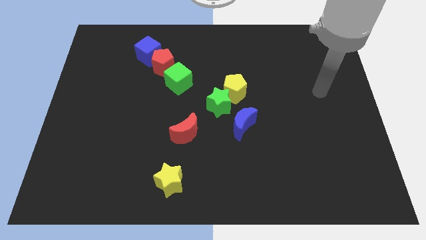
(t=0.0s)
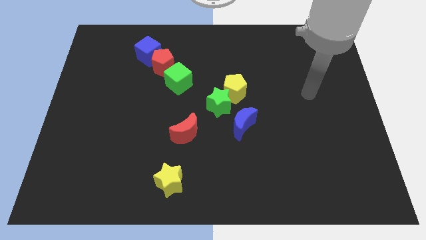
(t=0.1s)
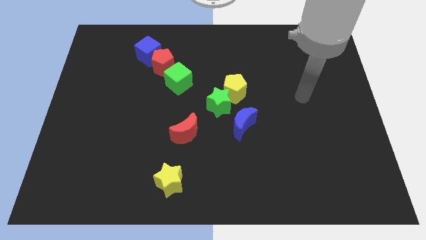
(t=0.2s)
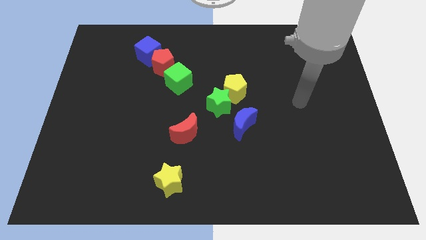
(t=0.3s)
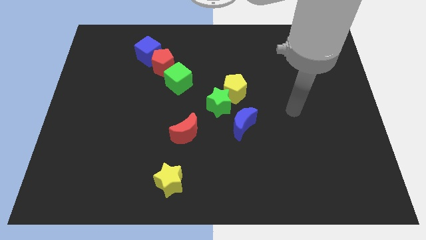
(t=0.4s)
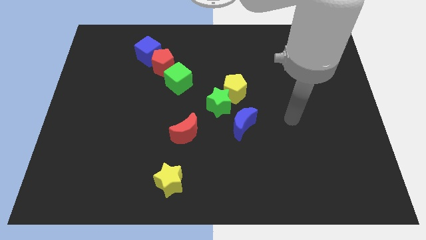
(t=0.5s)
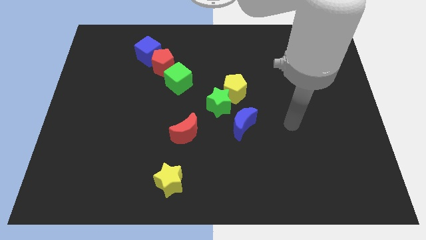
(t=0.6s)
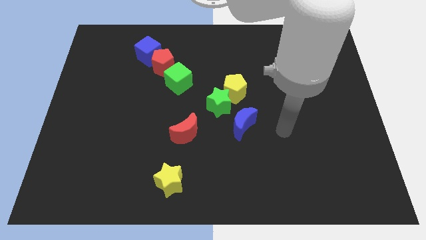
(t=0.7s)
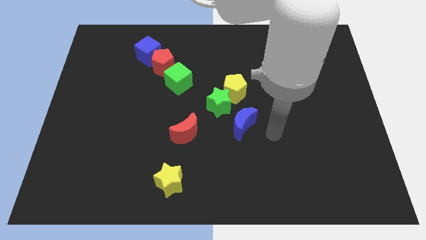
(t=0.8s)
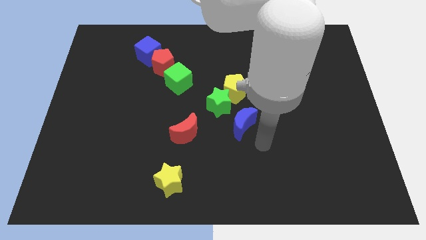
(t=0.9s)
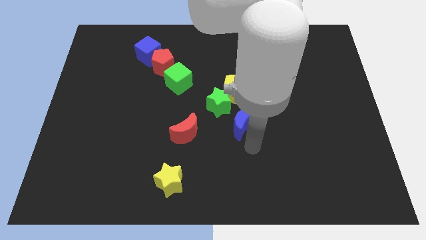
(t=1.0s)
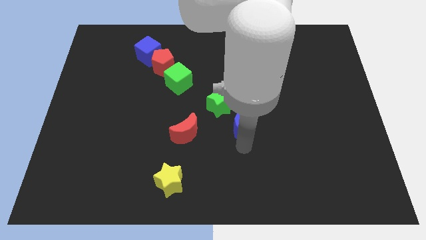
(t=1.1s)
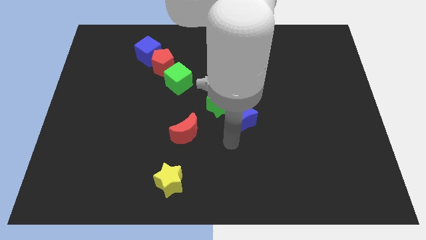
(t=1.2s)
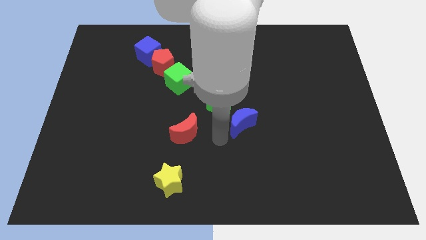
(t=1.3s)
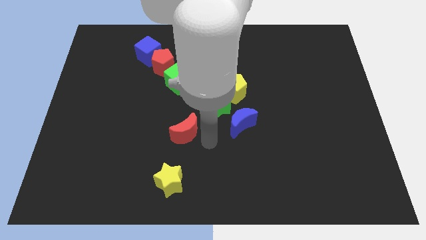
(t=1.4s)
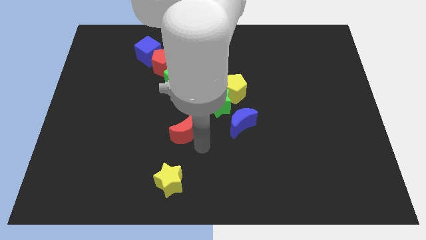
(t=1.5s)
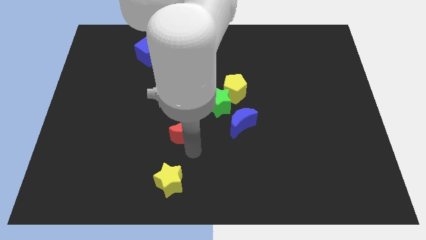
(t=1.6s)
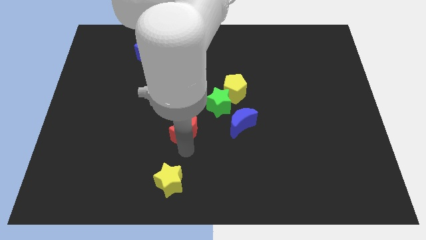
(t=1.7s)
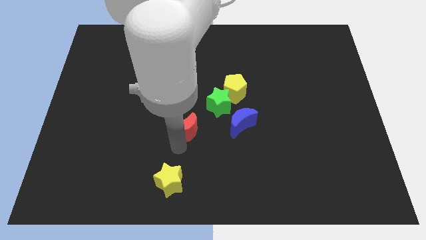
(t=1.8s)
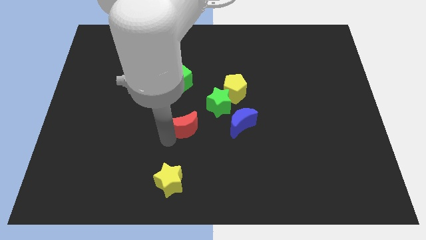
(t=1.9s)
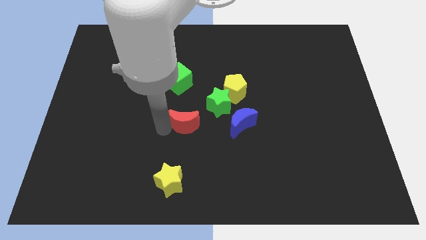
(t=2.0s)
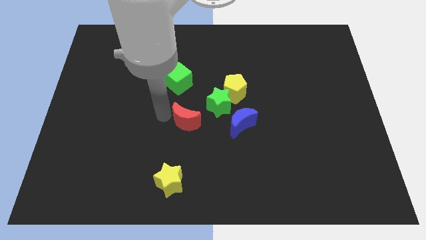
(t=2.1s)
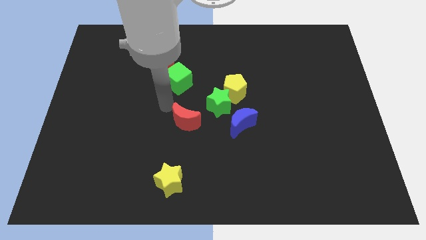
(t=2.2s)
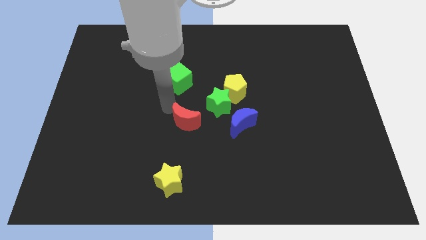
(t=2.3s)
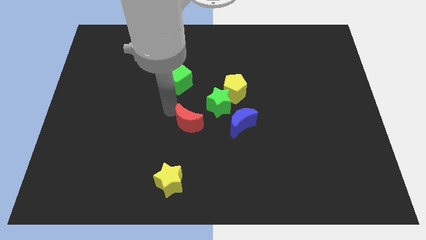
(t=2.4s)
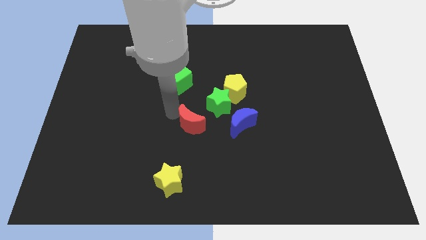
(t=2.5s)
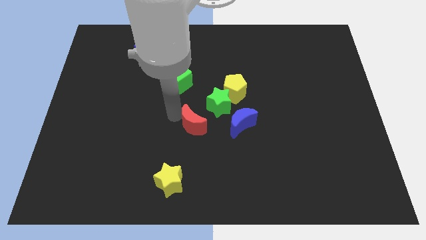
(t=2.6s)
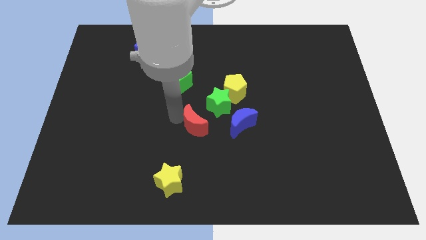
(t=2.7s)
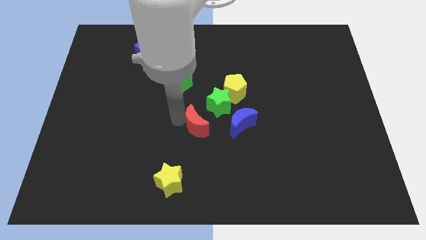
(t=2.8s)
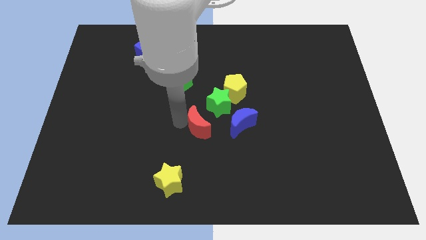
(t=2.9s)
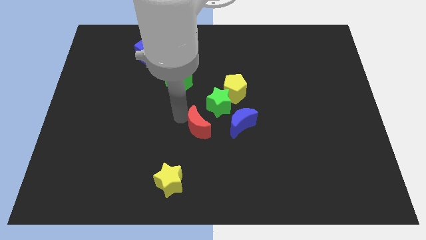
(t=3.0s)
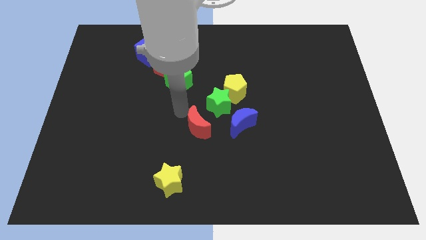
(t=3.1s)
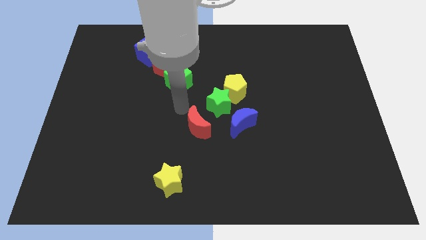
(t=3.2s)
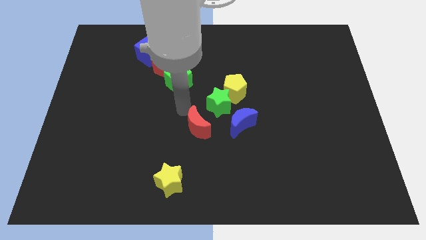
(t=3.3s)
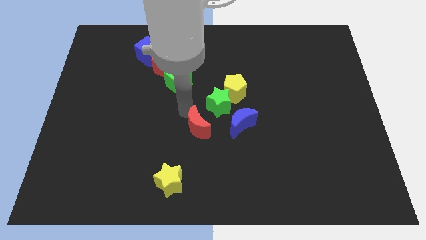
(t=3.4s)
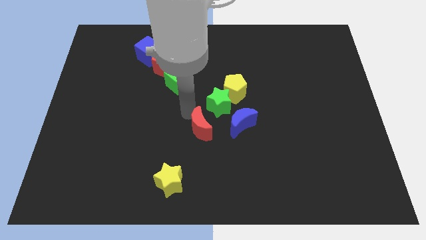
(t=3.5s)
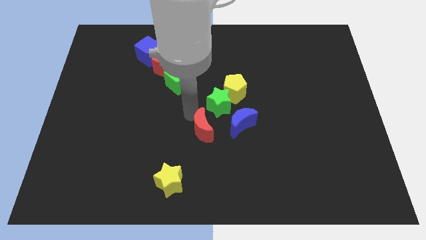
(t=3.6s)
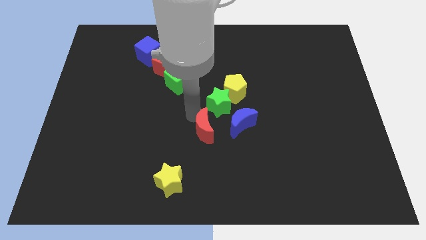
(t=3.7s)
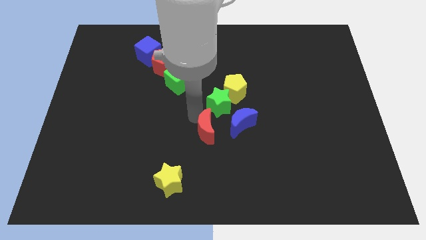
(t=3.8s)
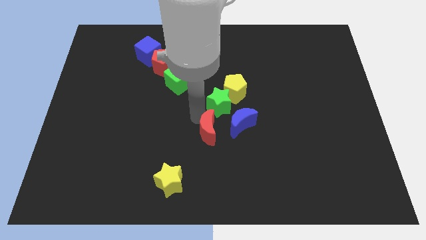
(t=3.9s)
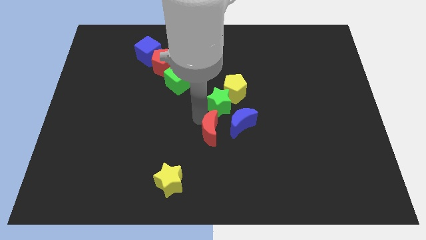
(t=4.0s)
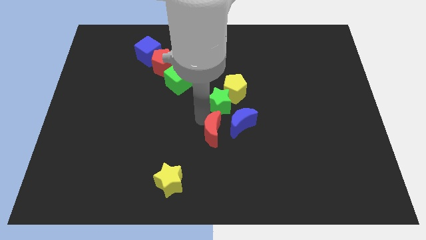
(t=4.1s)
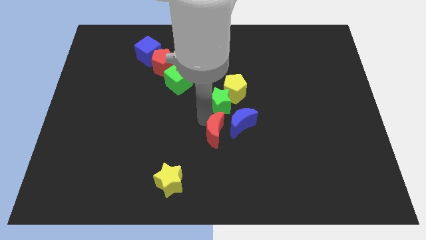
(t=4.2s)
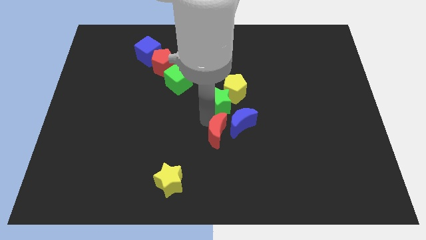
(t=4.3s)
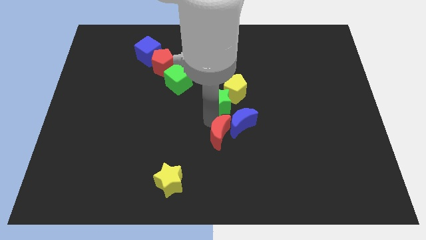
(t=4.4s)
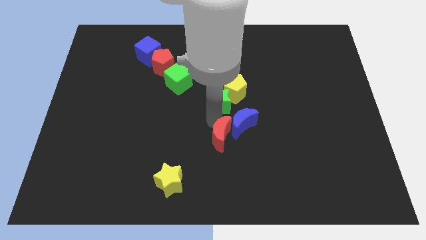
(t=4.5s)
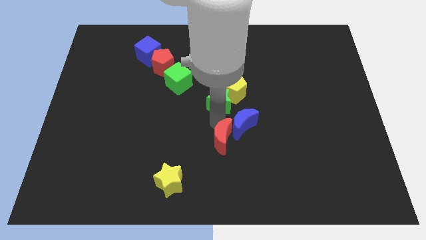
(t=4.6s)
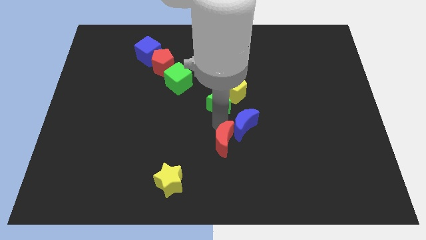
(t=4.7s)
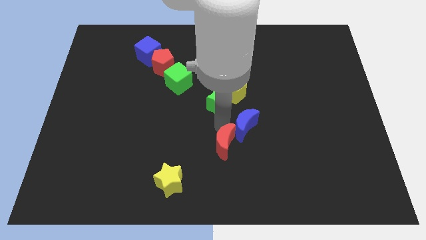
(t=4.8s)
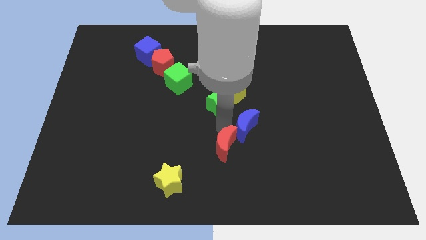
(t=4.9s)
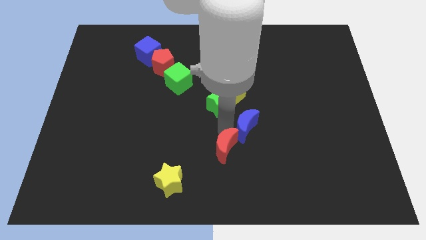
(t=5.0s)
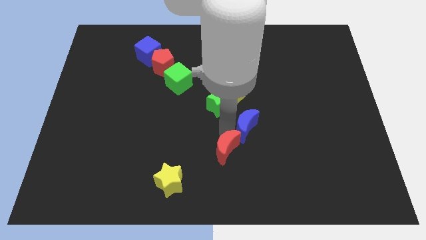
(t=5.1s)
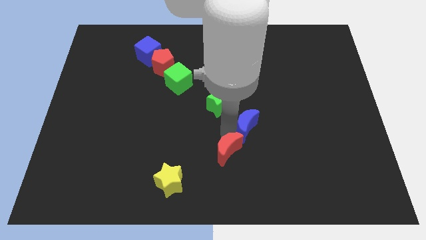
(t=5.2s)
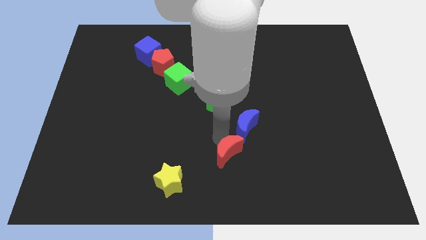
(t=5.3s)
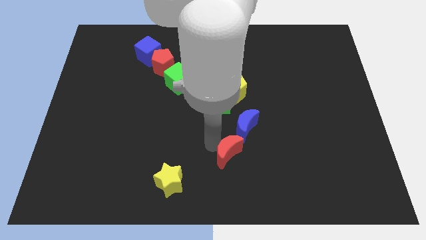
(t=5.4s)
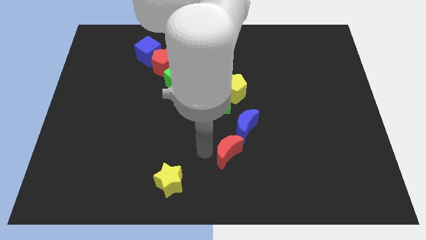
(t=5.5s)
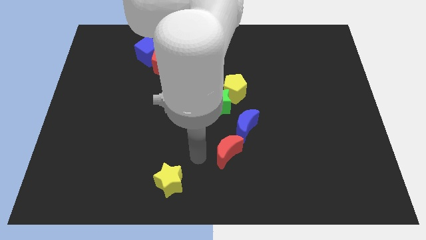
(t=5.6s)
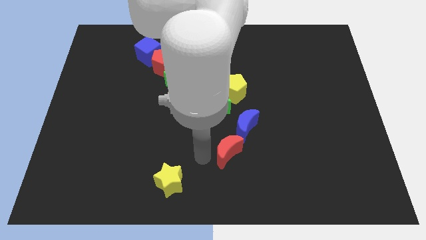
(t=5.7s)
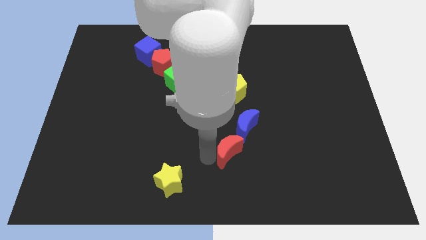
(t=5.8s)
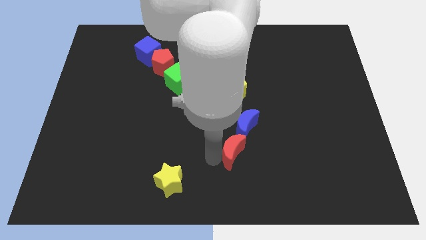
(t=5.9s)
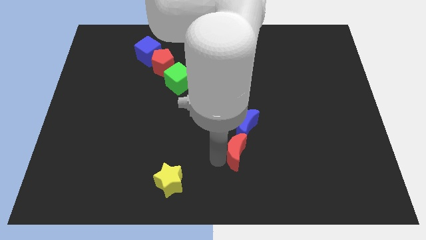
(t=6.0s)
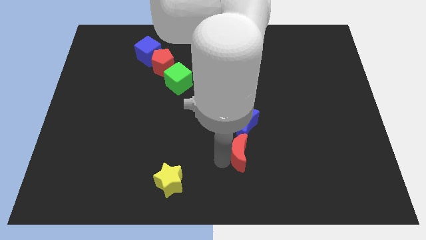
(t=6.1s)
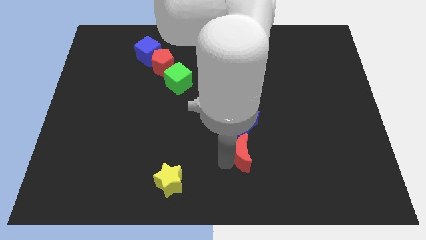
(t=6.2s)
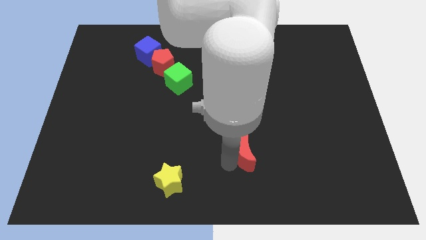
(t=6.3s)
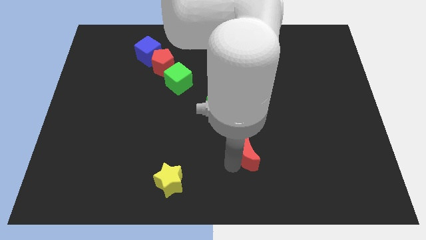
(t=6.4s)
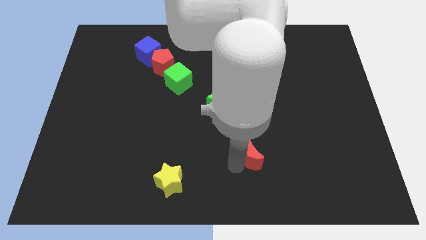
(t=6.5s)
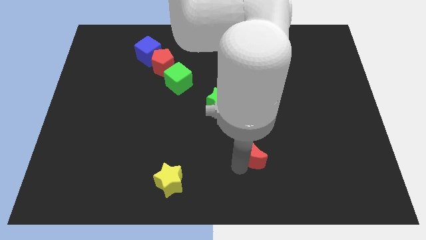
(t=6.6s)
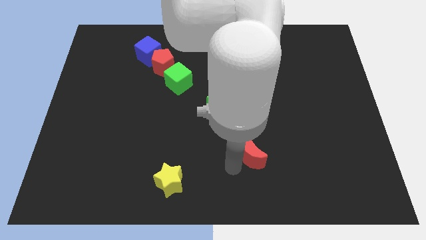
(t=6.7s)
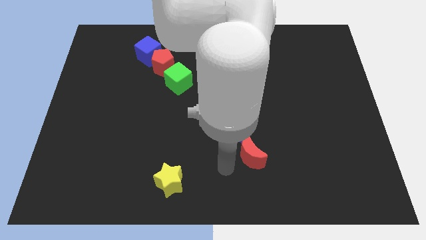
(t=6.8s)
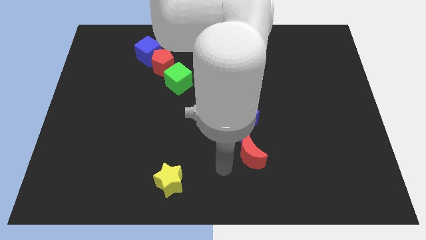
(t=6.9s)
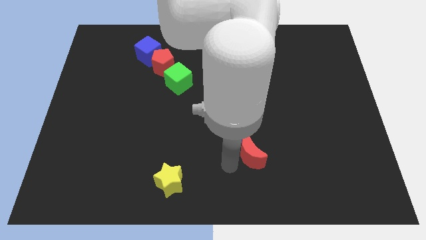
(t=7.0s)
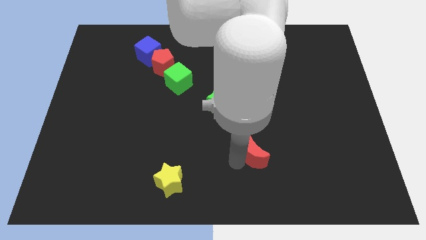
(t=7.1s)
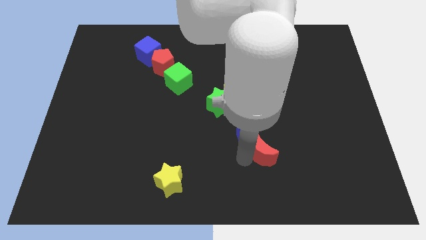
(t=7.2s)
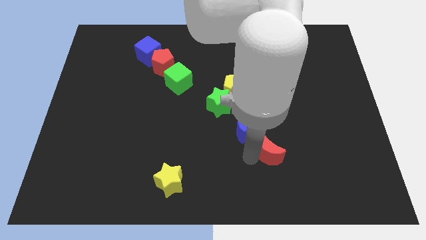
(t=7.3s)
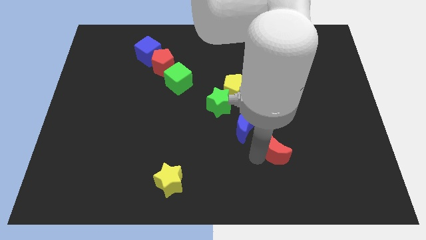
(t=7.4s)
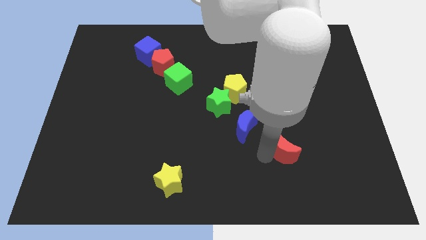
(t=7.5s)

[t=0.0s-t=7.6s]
move the red moon right

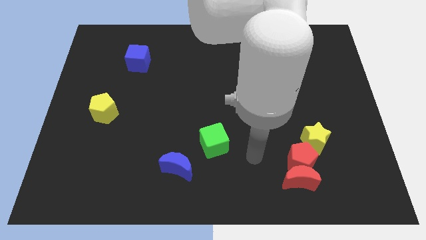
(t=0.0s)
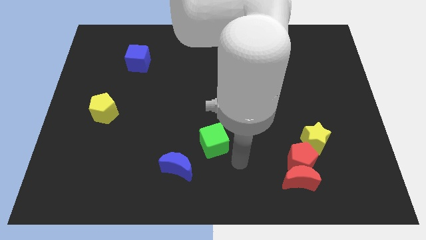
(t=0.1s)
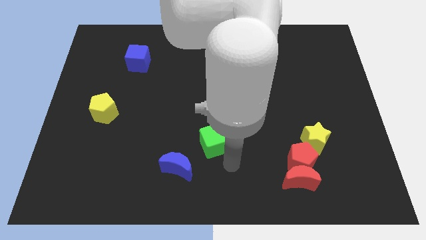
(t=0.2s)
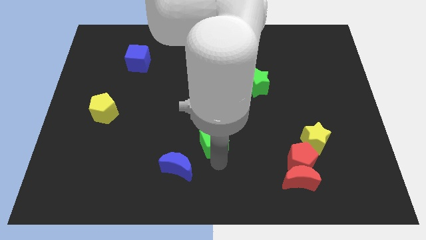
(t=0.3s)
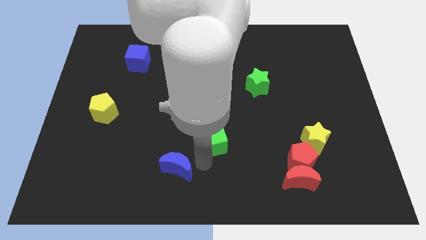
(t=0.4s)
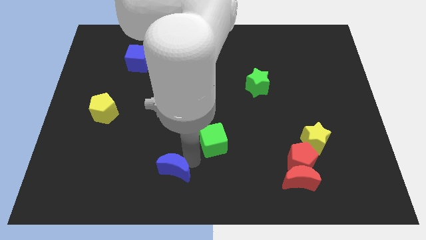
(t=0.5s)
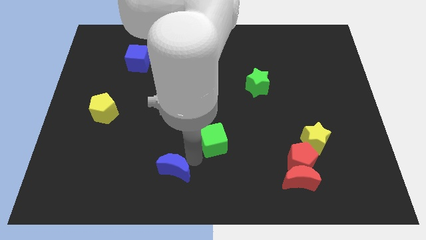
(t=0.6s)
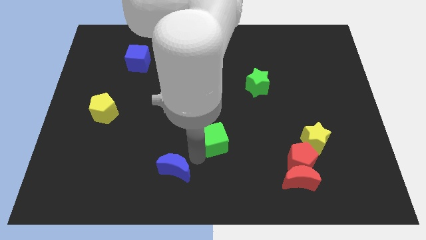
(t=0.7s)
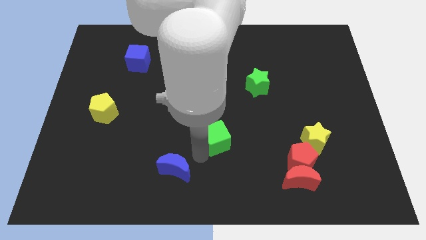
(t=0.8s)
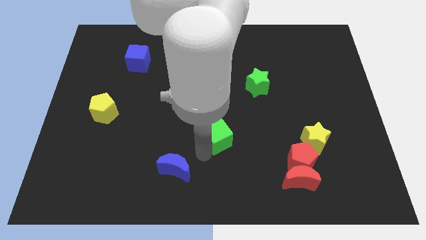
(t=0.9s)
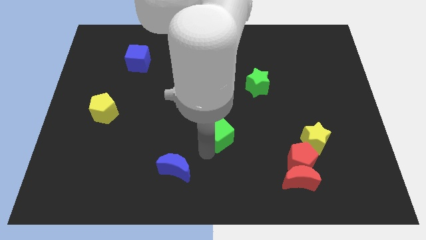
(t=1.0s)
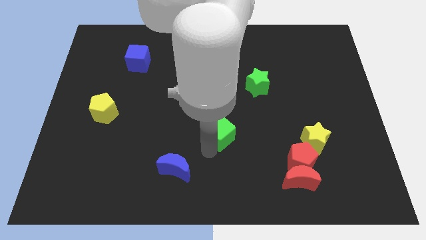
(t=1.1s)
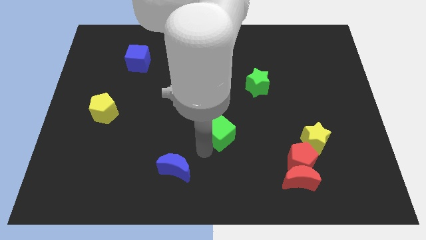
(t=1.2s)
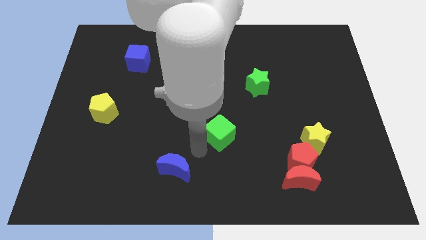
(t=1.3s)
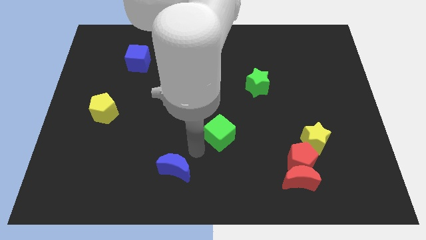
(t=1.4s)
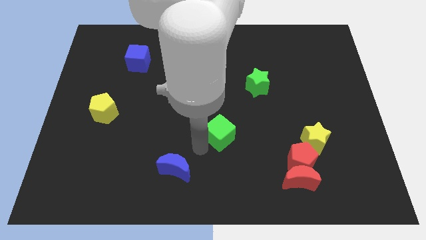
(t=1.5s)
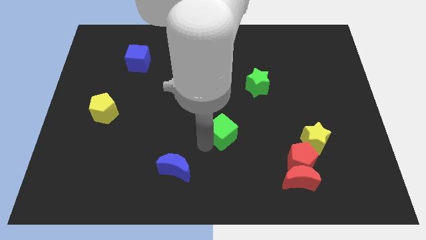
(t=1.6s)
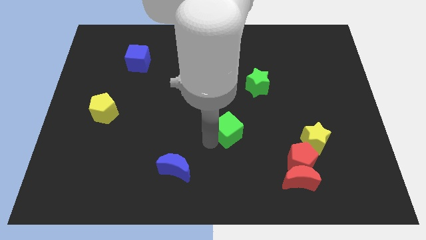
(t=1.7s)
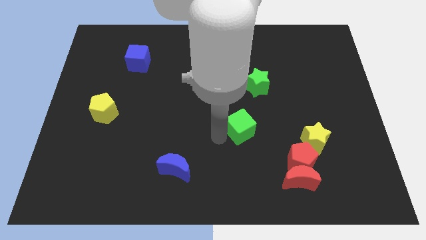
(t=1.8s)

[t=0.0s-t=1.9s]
move the green cube diagonally upwards and to the right a bit
